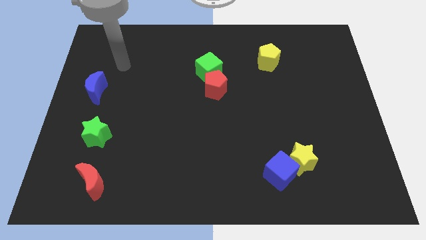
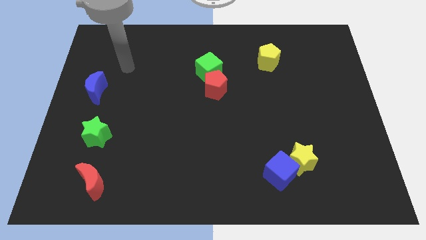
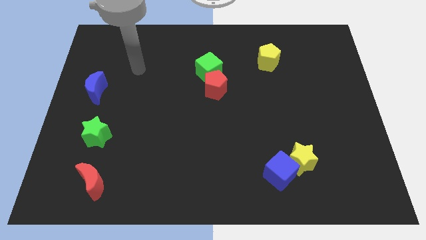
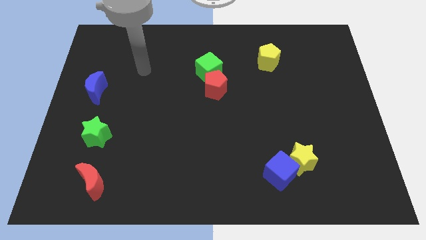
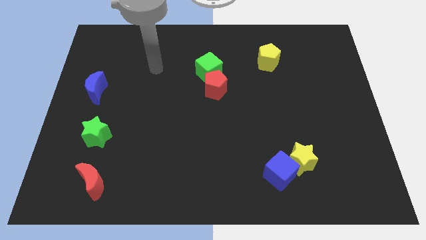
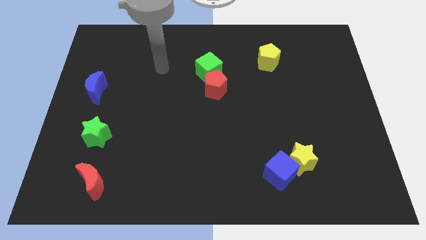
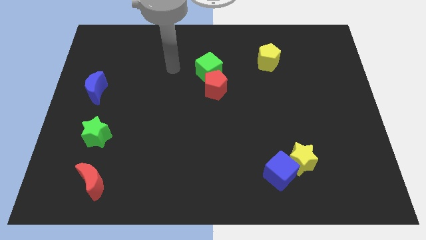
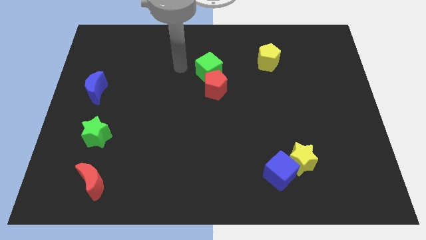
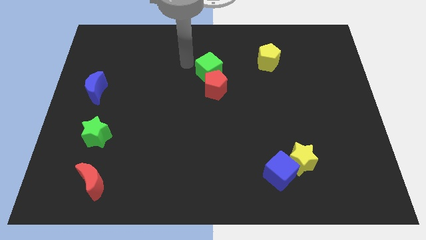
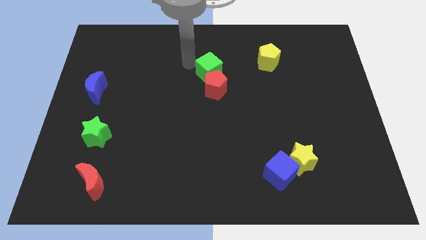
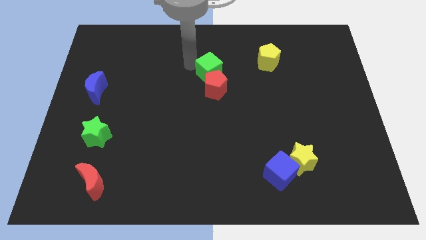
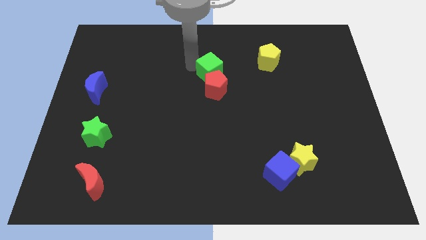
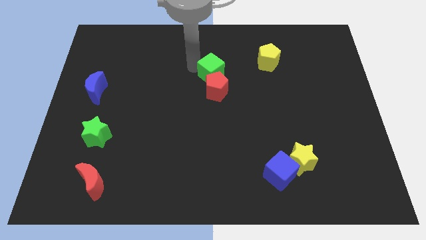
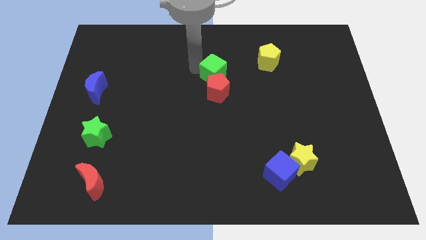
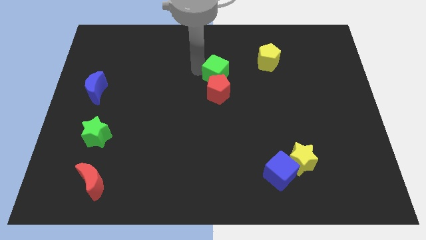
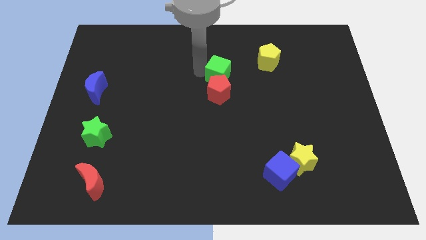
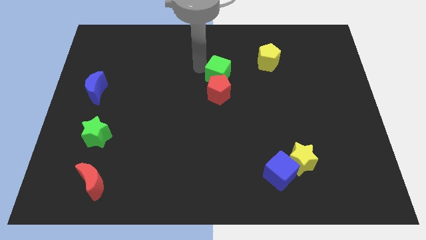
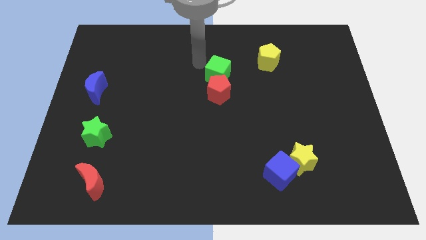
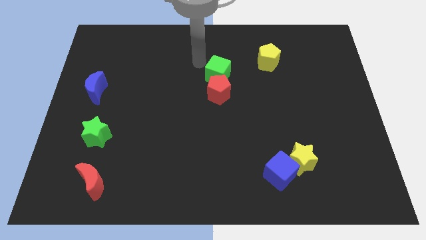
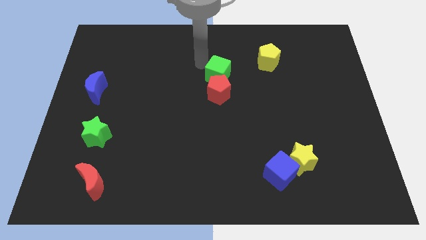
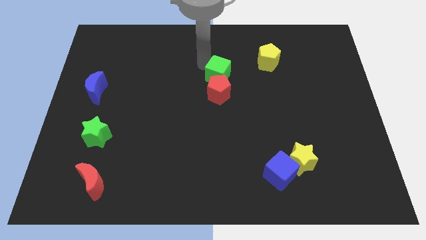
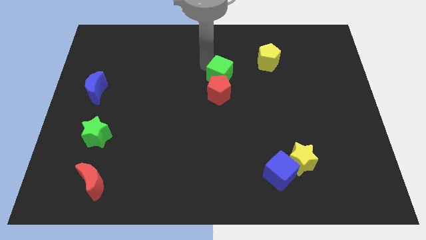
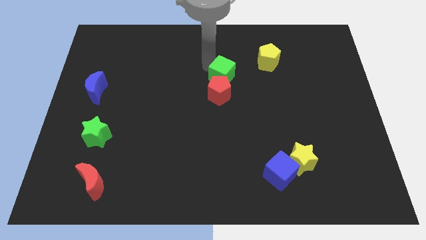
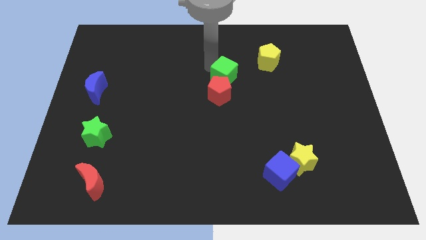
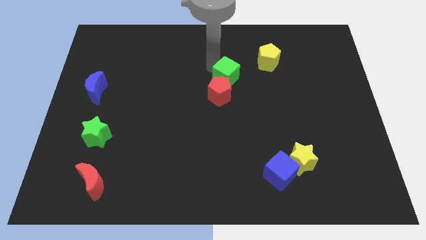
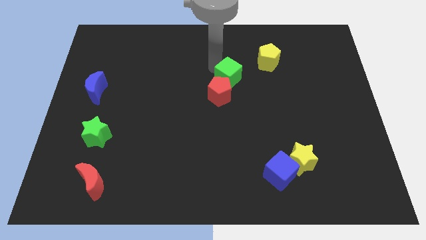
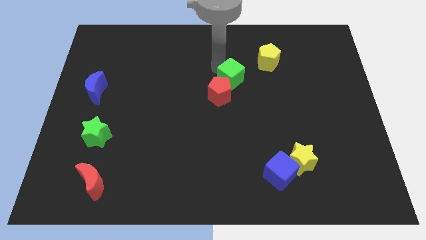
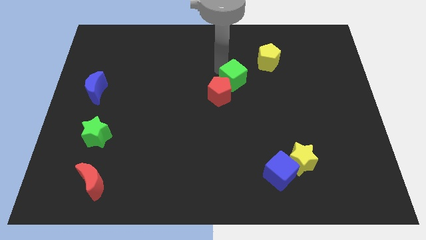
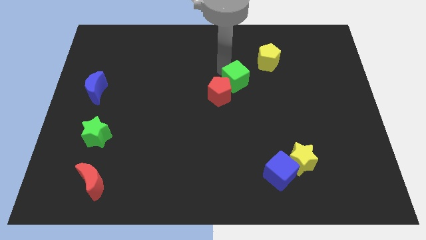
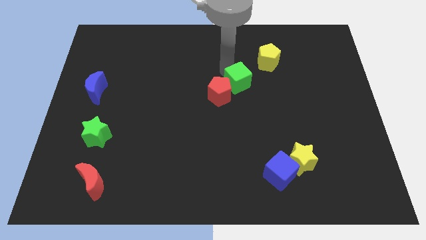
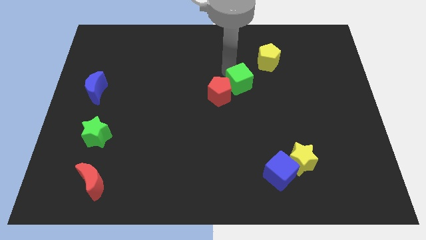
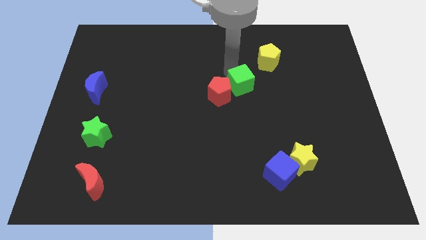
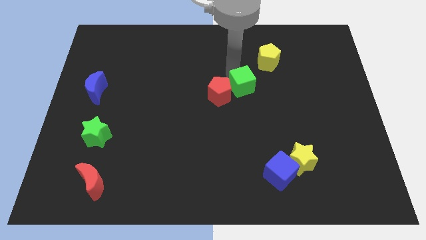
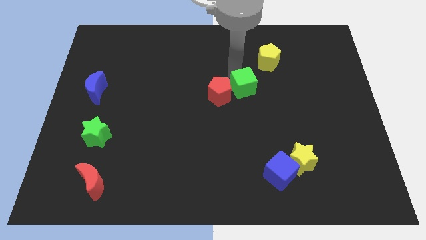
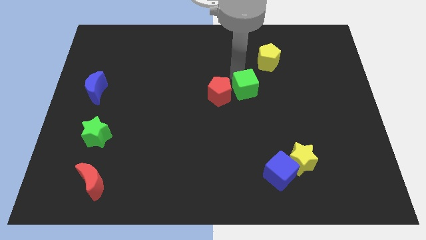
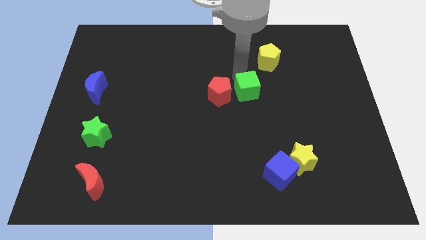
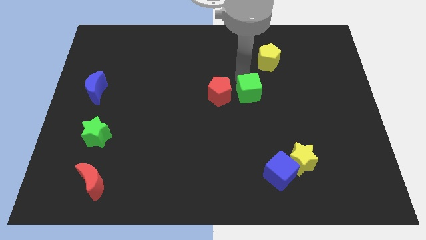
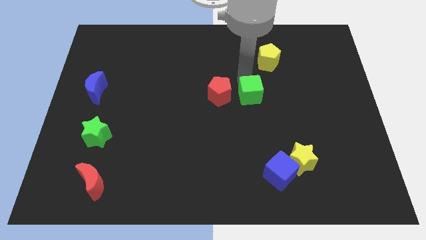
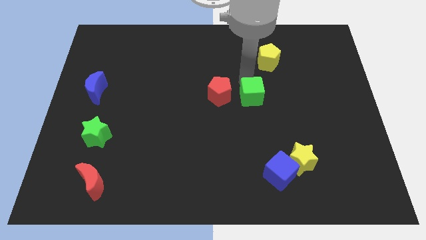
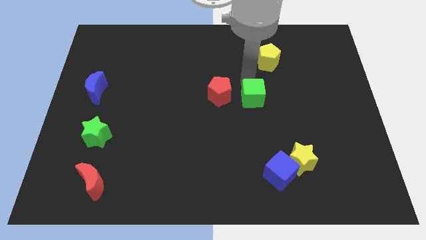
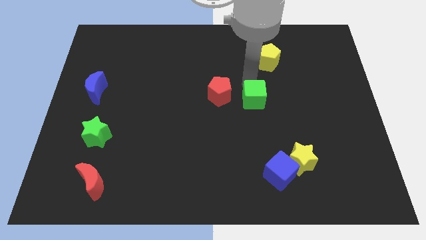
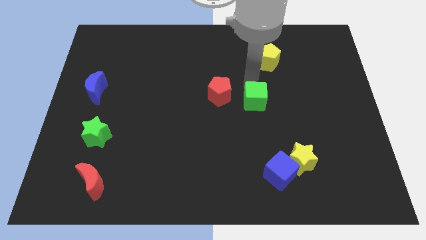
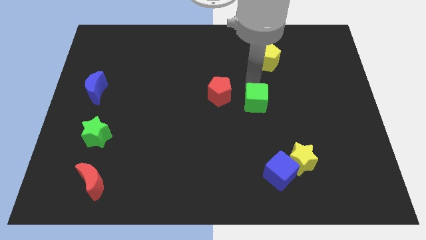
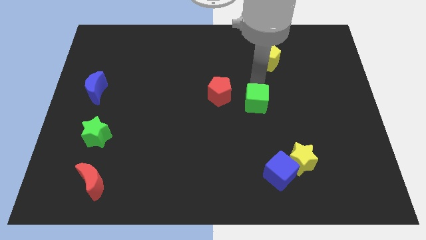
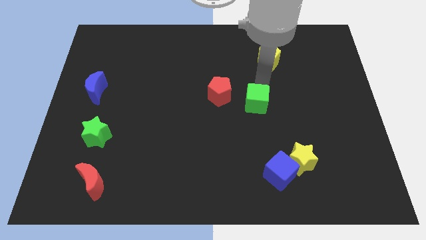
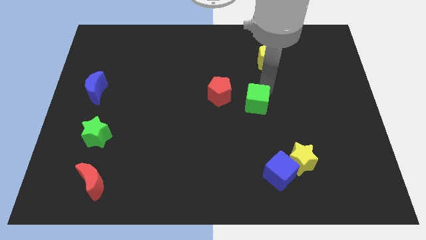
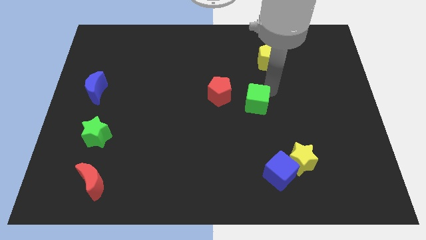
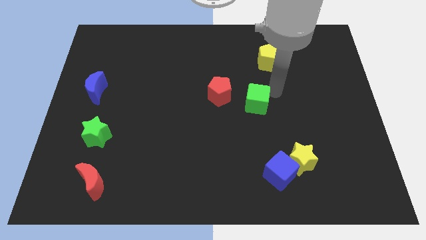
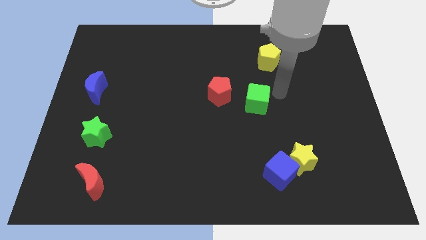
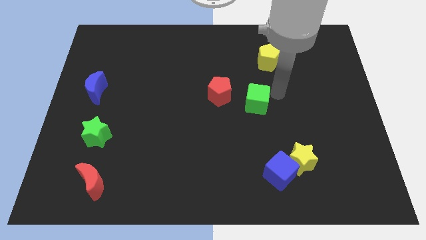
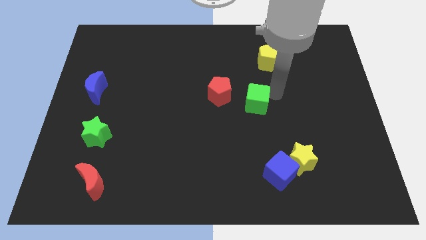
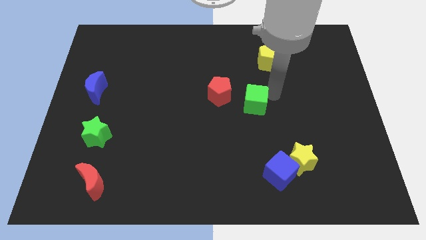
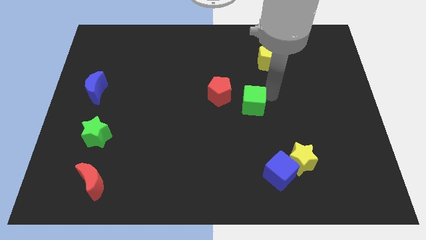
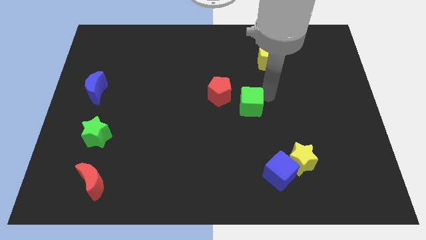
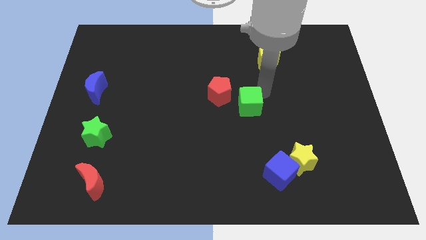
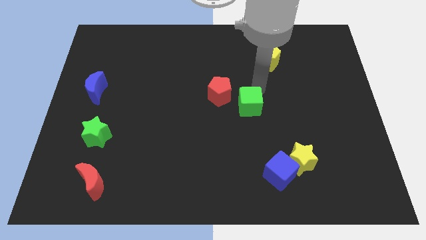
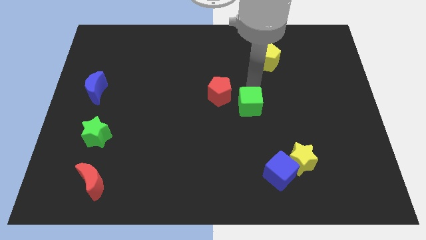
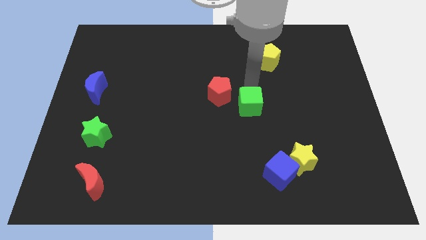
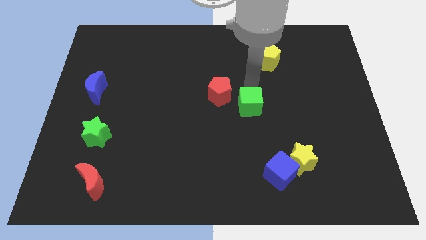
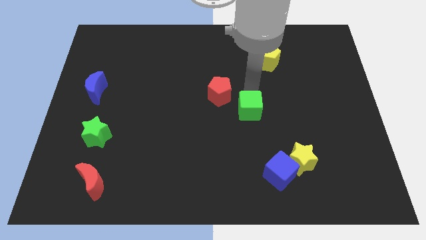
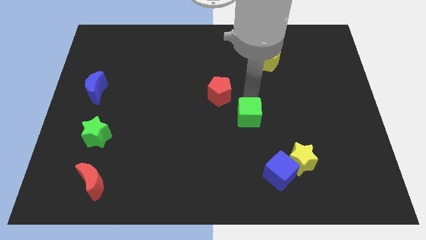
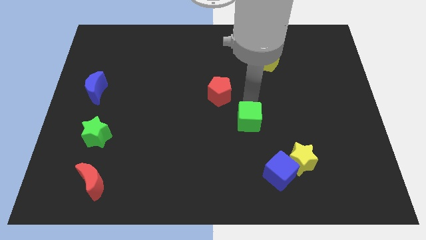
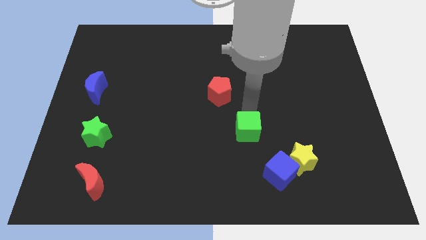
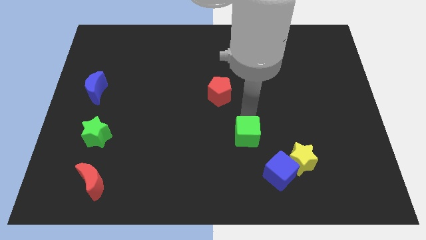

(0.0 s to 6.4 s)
slide the green cube to the top left side of the blue cube

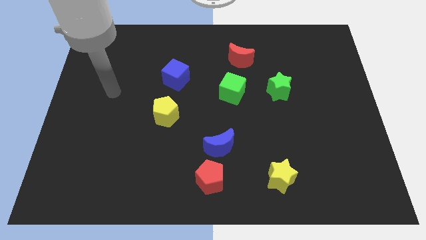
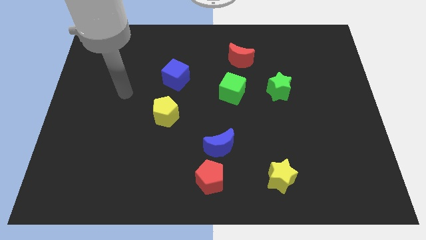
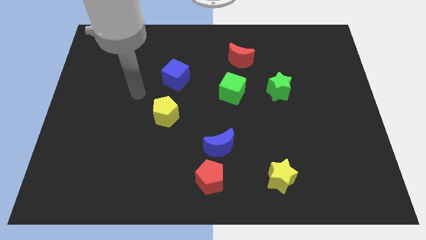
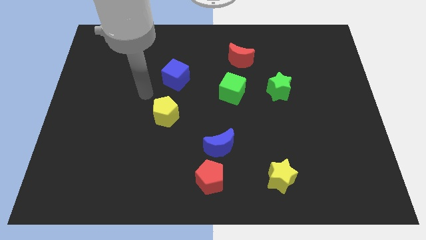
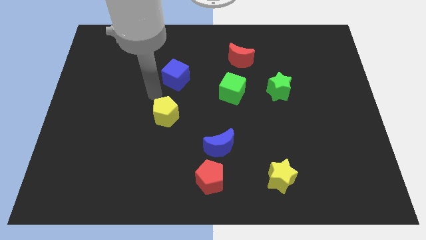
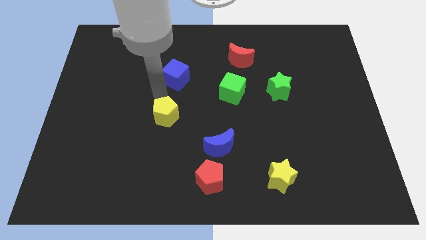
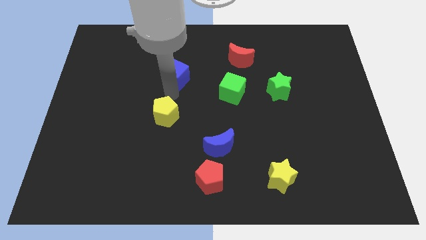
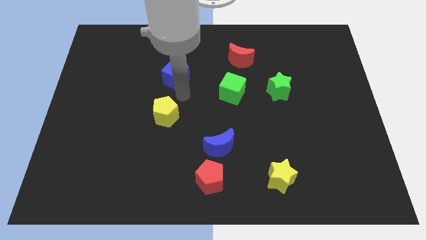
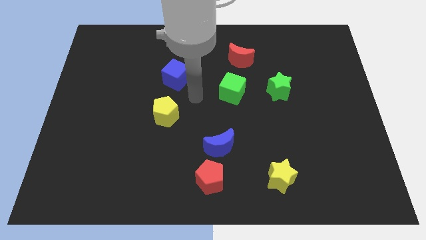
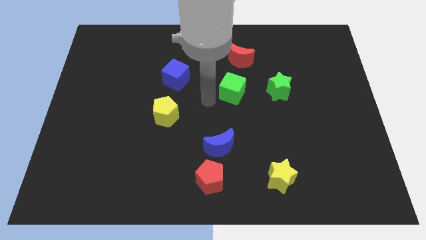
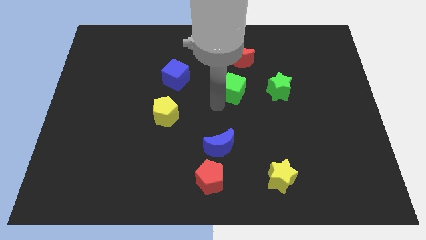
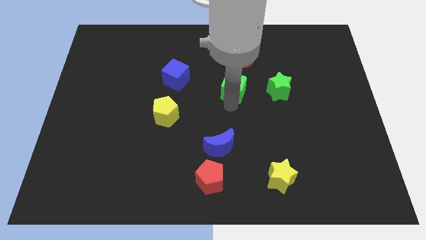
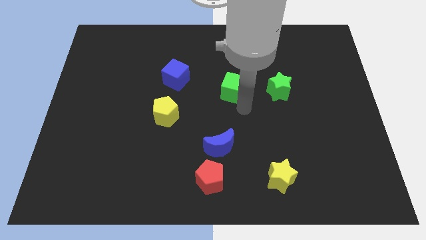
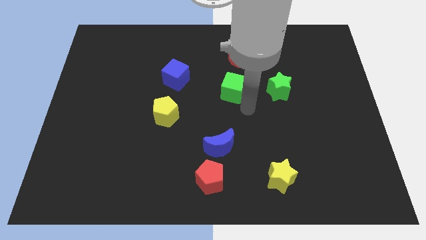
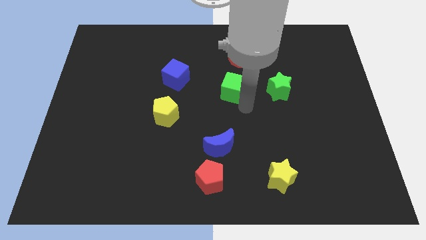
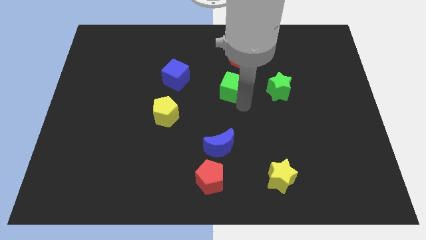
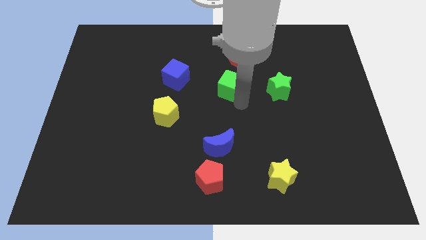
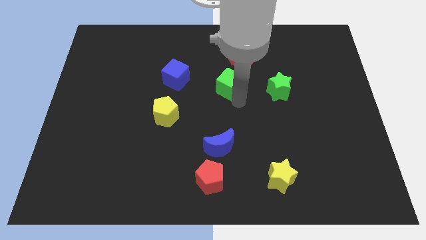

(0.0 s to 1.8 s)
put the green cube to the bottom left side of the red moon
